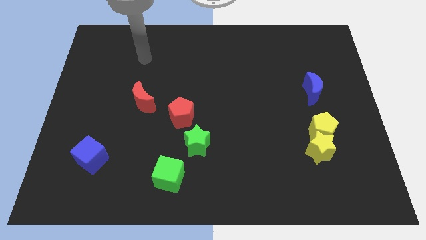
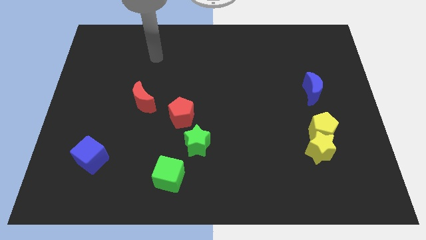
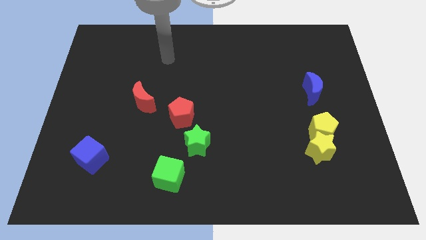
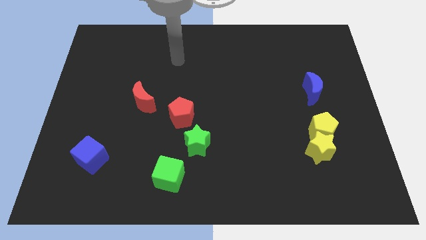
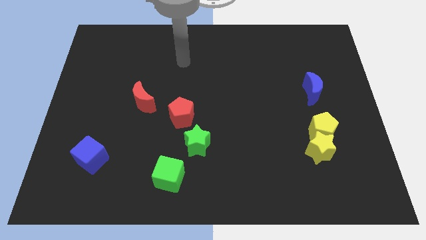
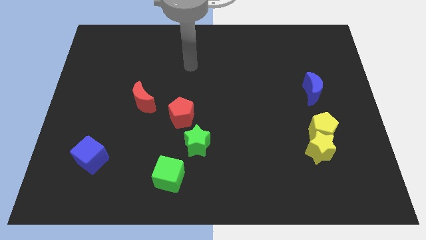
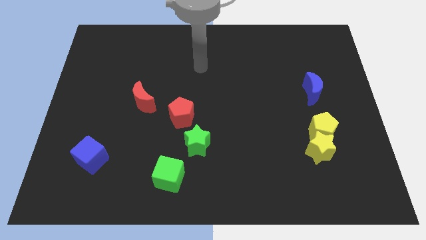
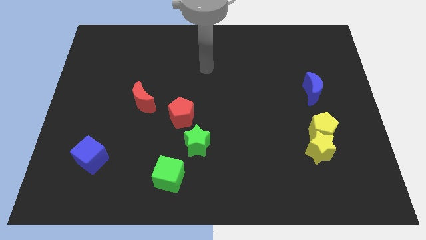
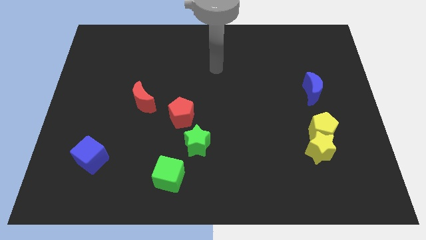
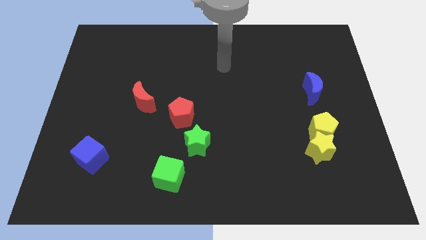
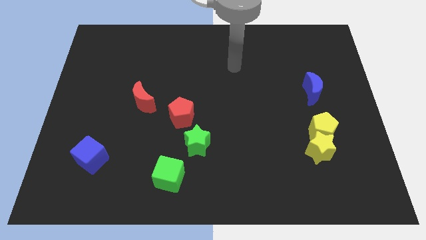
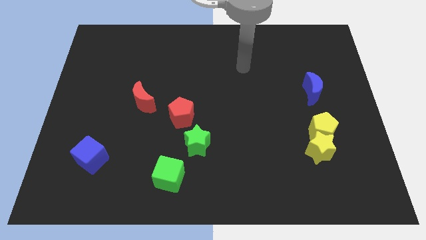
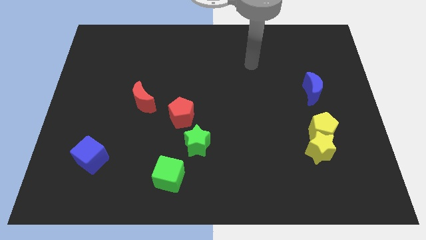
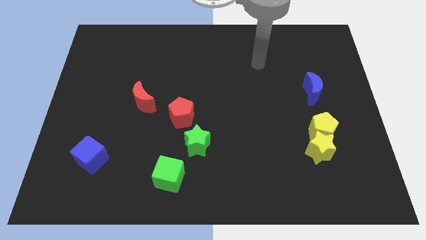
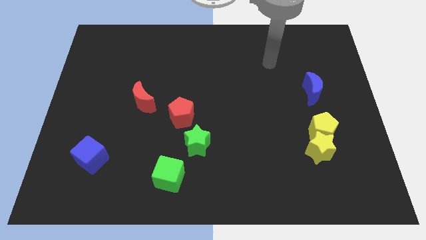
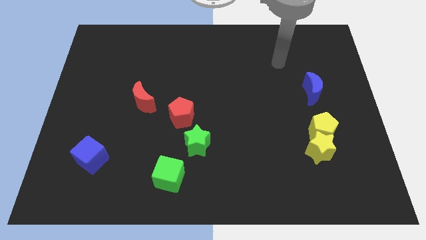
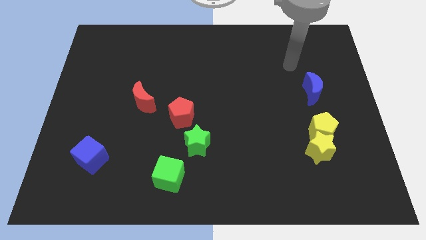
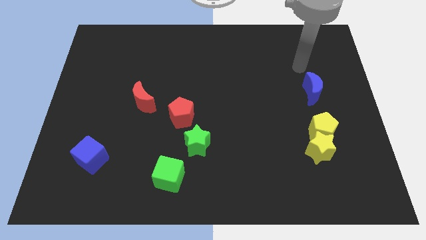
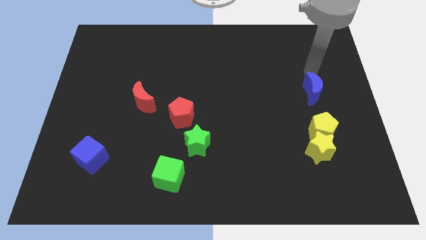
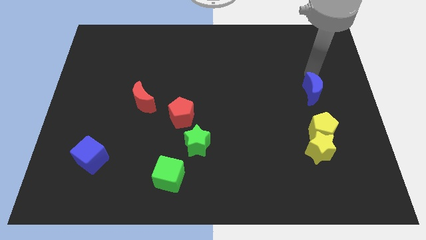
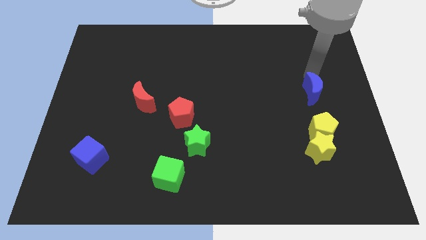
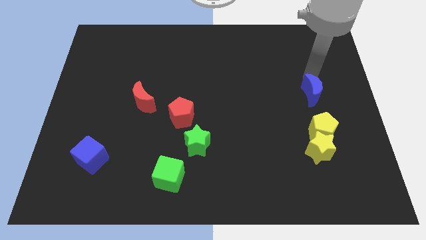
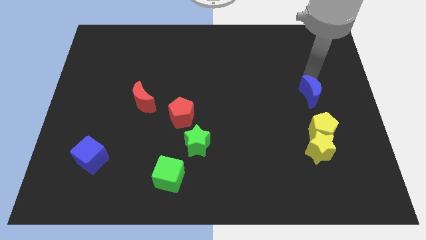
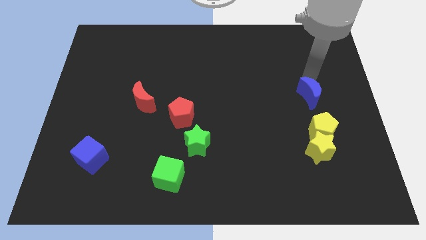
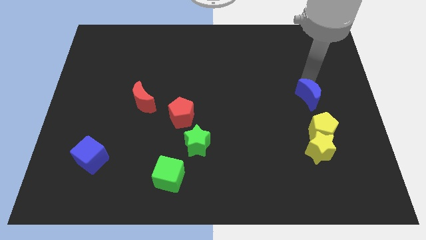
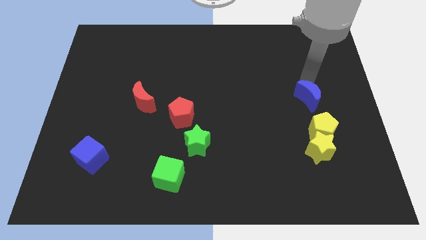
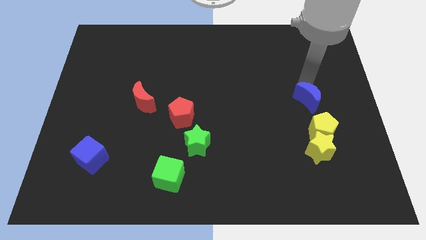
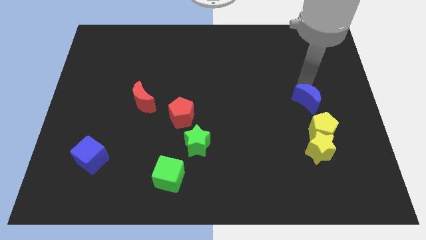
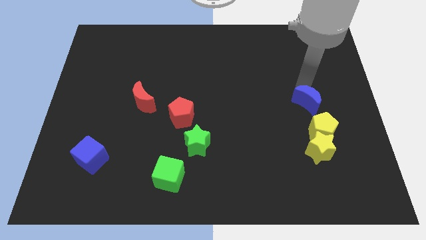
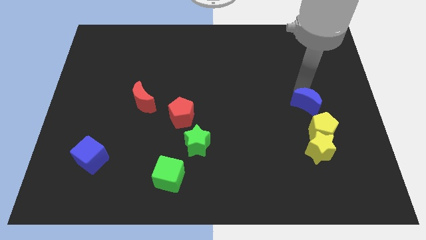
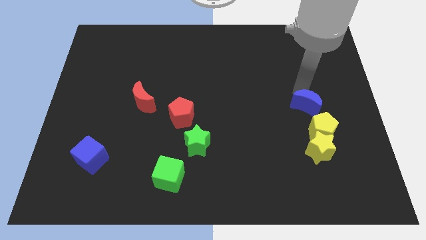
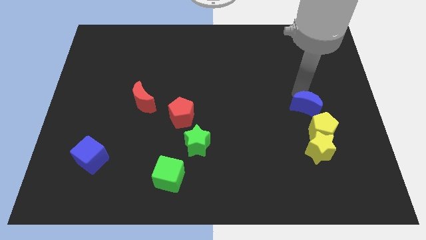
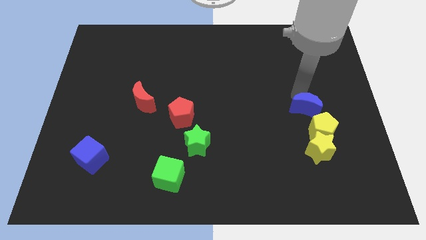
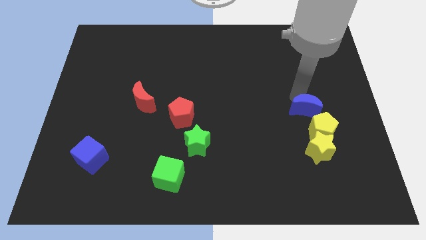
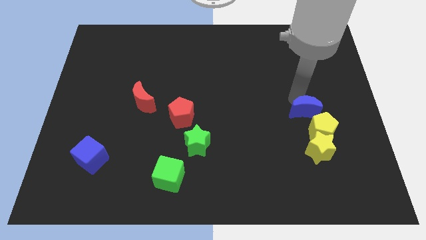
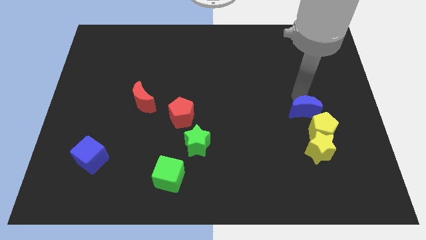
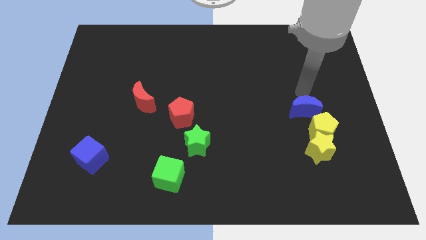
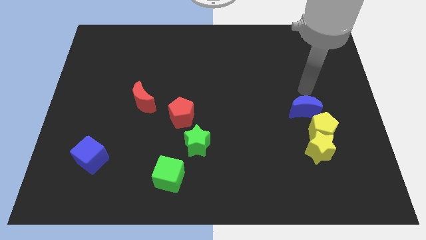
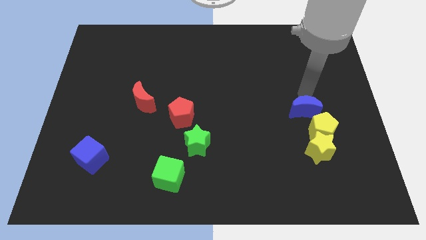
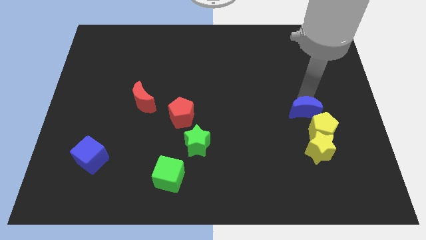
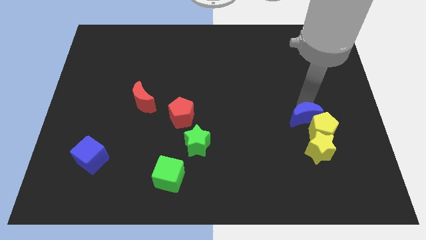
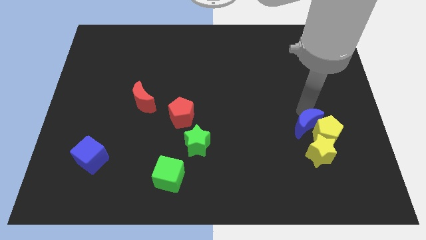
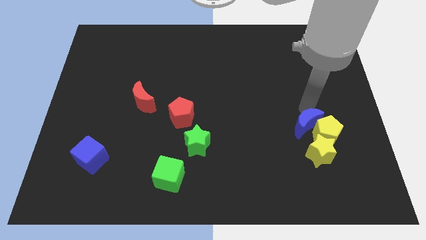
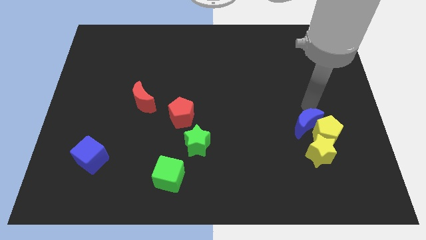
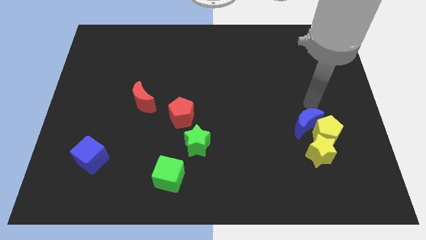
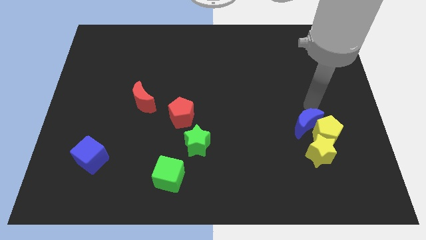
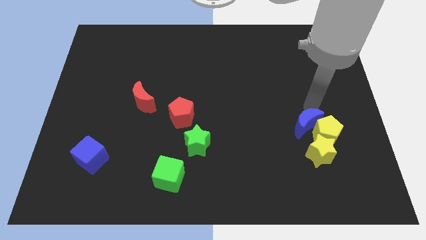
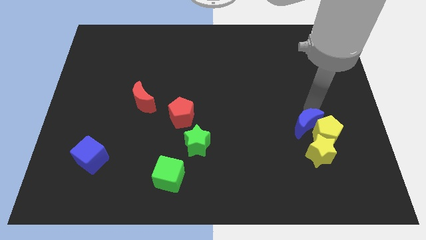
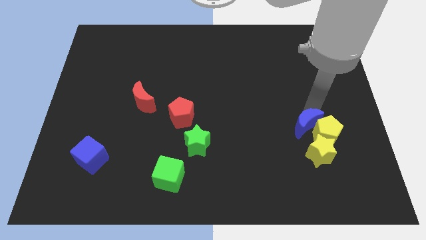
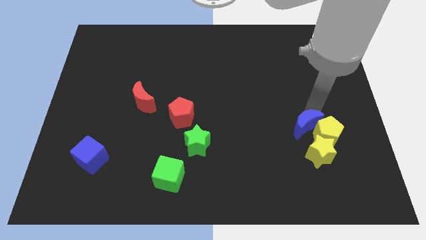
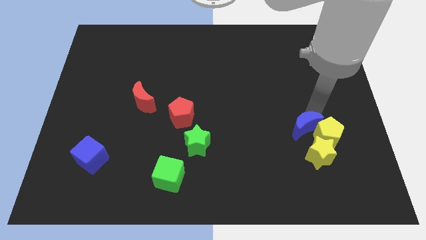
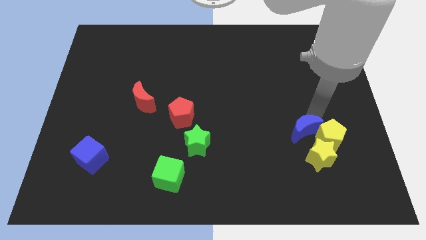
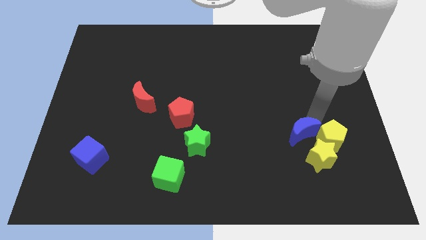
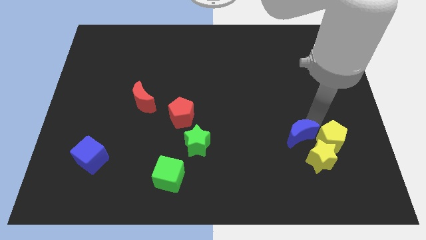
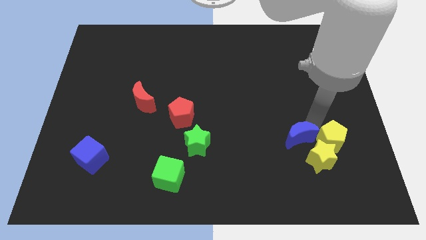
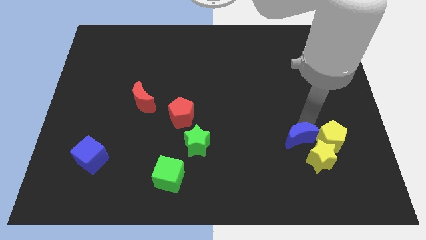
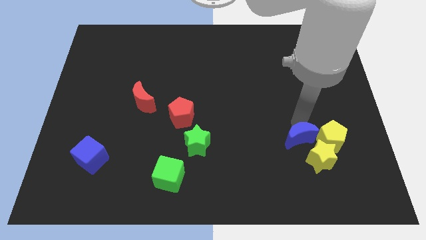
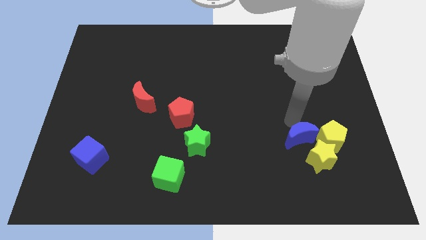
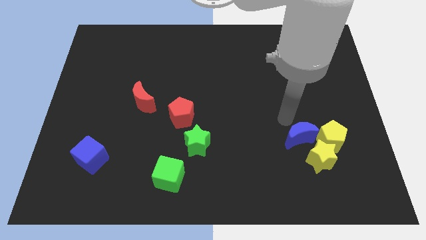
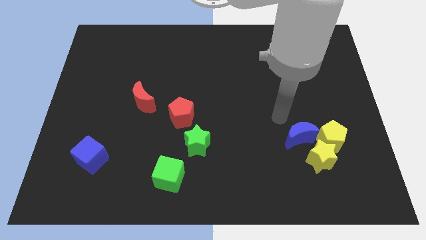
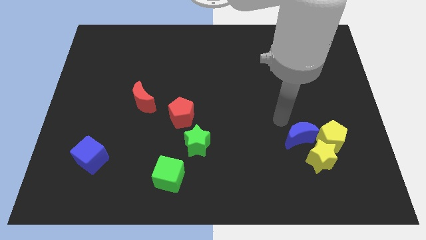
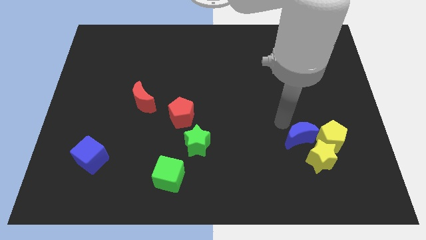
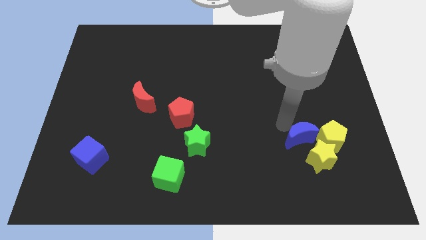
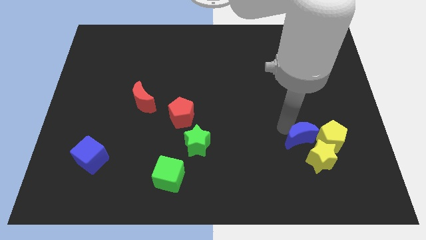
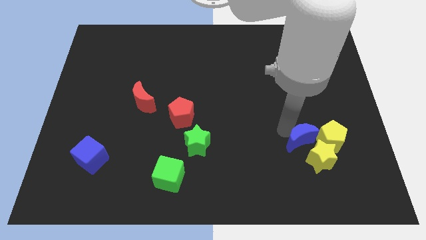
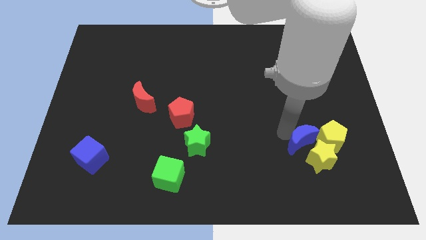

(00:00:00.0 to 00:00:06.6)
move the blue moon towards the yellow star
